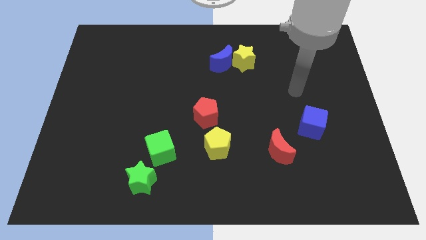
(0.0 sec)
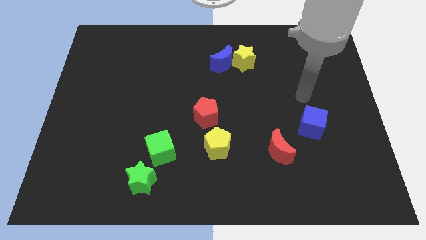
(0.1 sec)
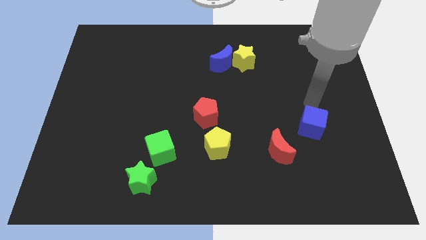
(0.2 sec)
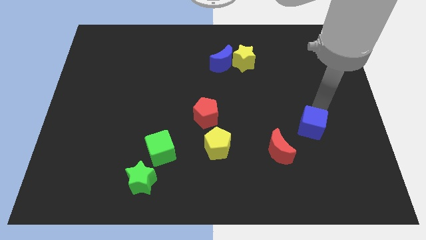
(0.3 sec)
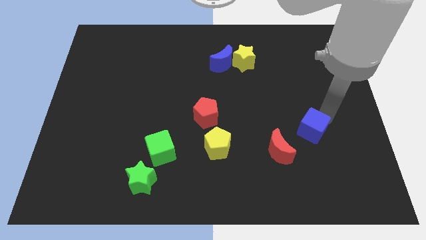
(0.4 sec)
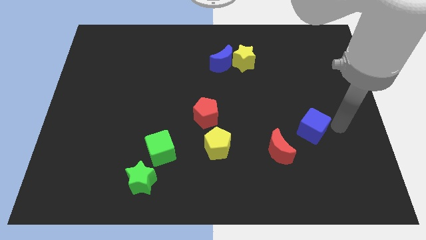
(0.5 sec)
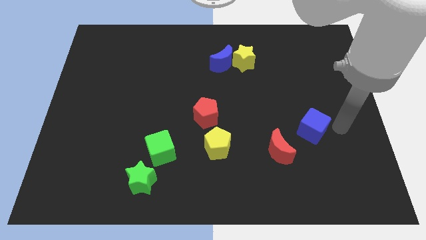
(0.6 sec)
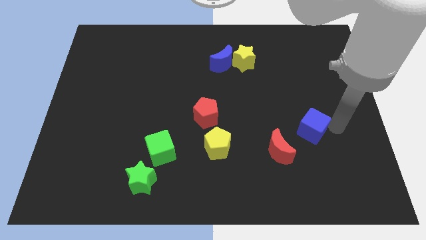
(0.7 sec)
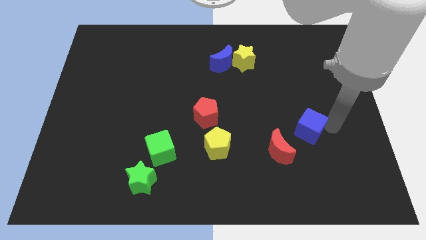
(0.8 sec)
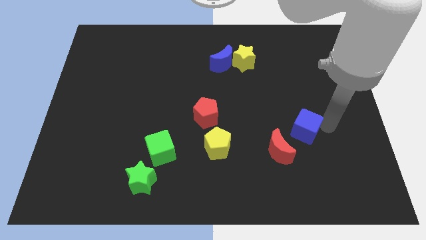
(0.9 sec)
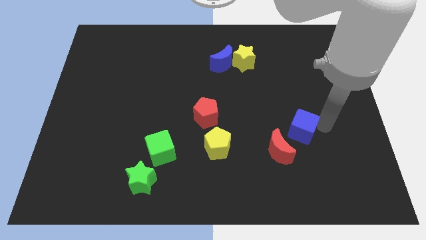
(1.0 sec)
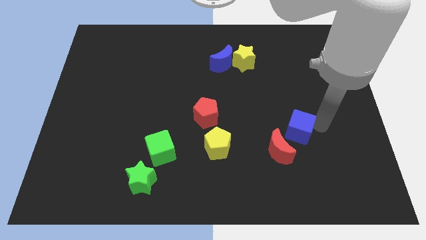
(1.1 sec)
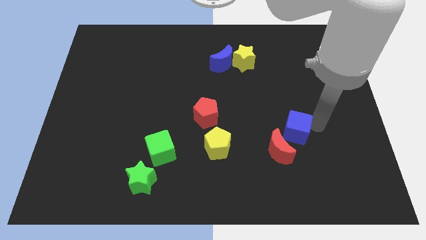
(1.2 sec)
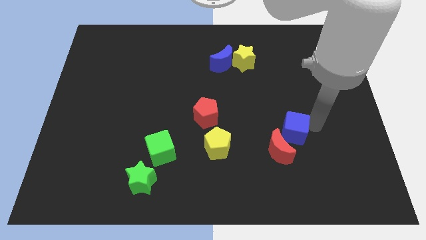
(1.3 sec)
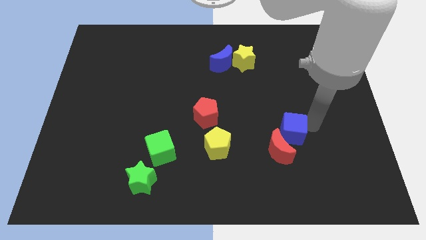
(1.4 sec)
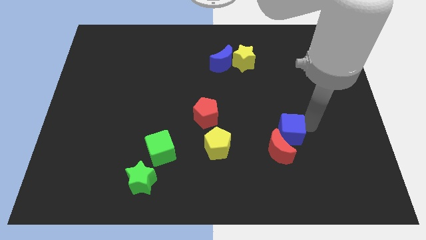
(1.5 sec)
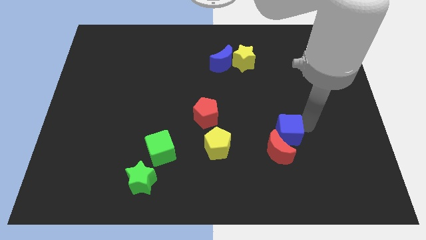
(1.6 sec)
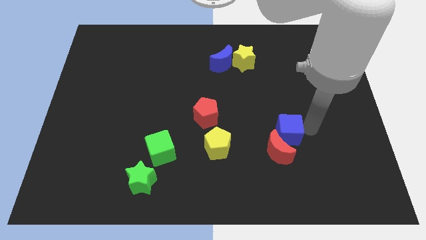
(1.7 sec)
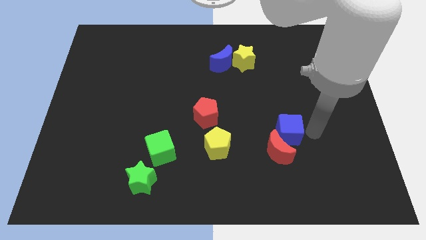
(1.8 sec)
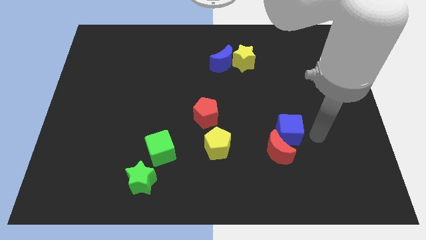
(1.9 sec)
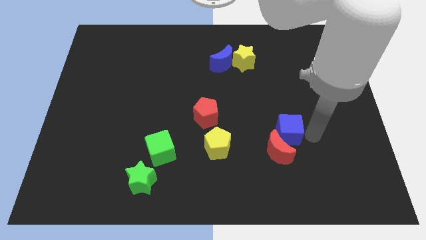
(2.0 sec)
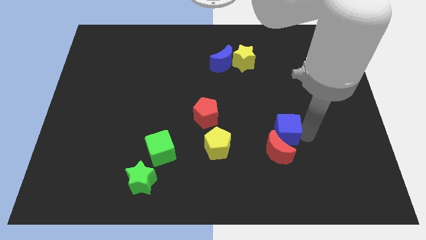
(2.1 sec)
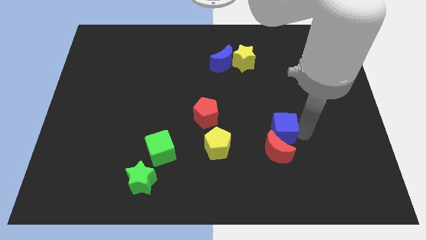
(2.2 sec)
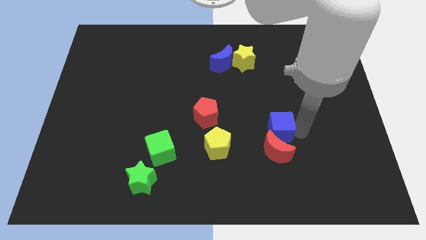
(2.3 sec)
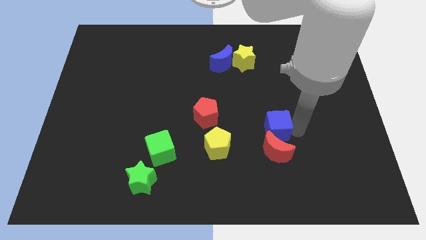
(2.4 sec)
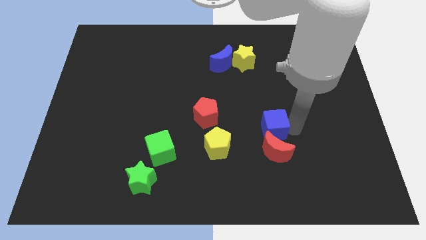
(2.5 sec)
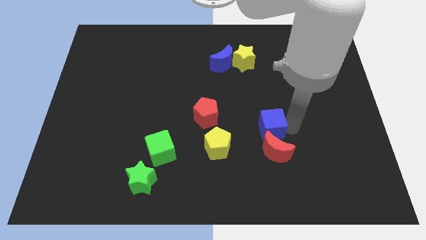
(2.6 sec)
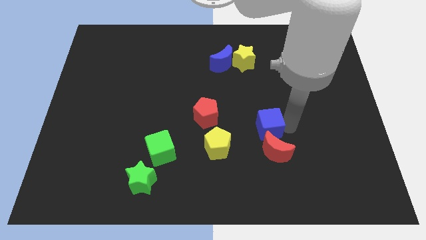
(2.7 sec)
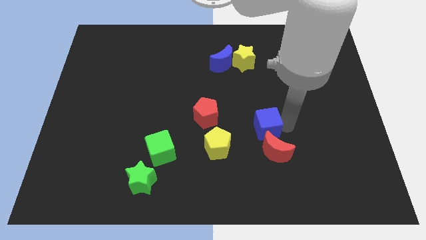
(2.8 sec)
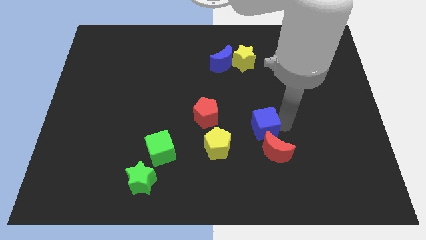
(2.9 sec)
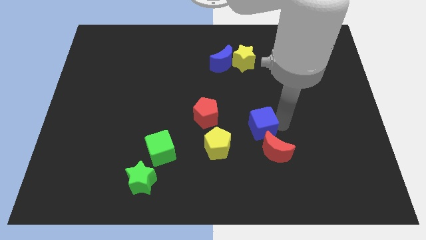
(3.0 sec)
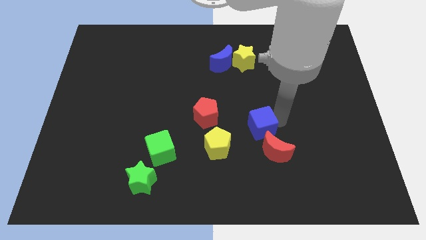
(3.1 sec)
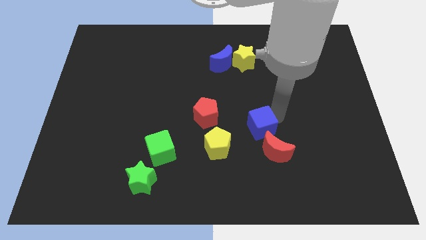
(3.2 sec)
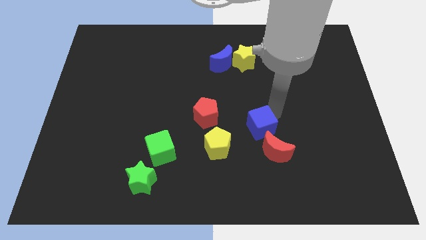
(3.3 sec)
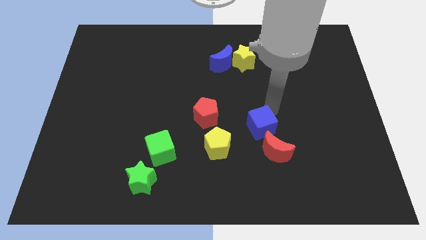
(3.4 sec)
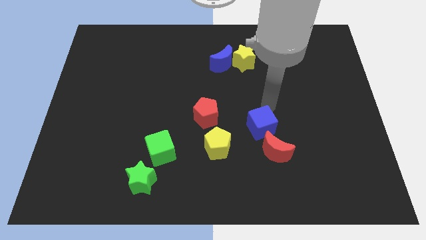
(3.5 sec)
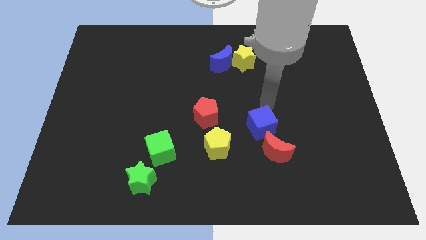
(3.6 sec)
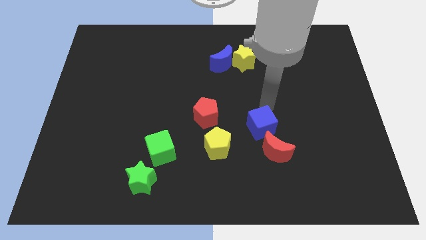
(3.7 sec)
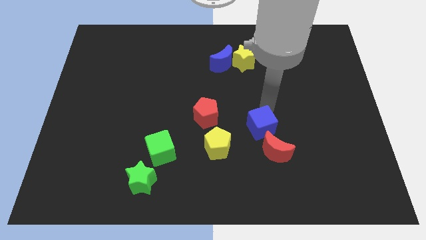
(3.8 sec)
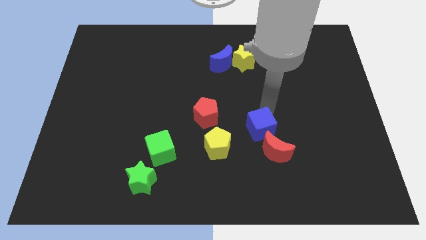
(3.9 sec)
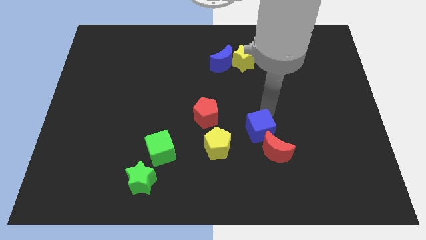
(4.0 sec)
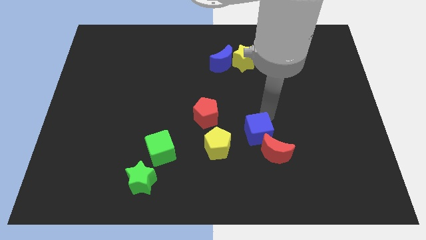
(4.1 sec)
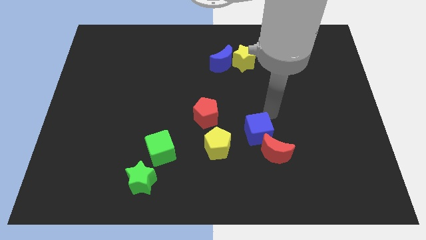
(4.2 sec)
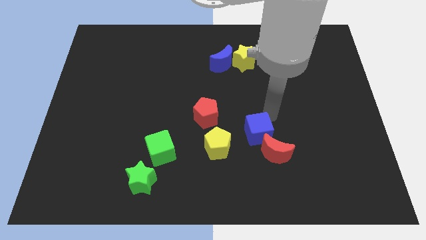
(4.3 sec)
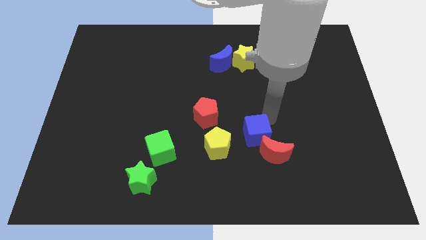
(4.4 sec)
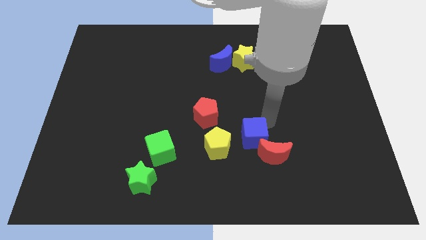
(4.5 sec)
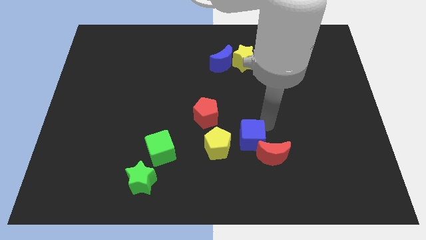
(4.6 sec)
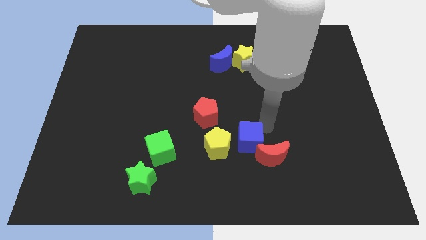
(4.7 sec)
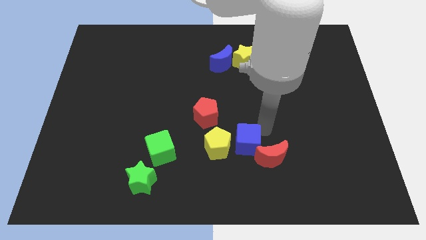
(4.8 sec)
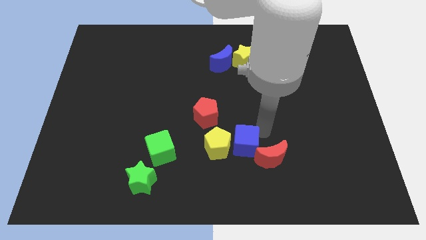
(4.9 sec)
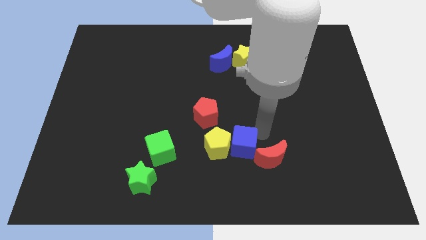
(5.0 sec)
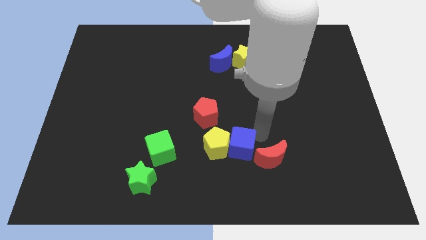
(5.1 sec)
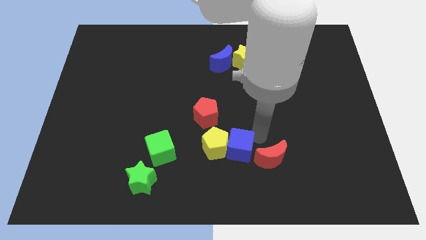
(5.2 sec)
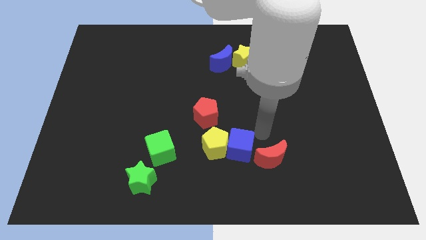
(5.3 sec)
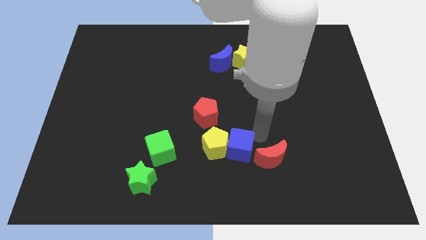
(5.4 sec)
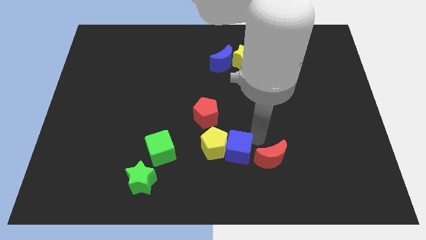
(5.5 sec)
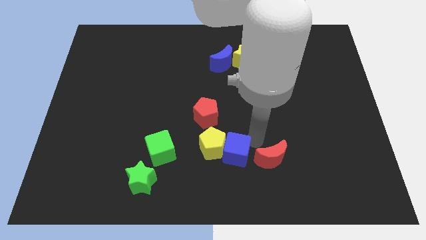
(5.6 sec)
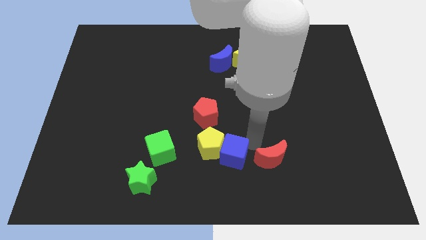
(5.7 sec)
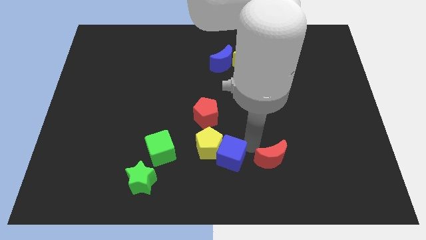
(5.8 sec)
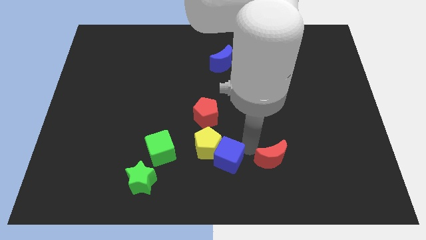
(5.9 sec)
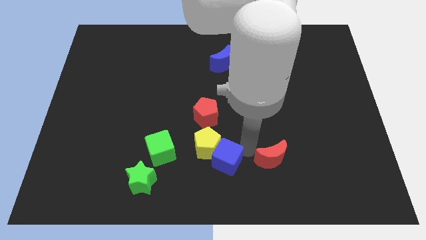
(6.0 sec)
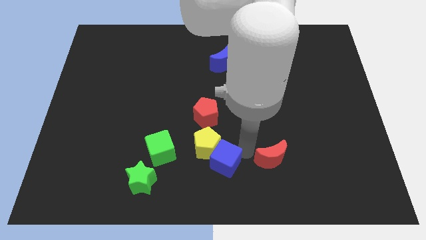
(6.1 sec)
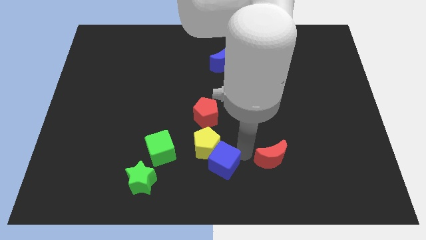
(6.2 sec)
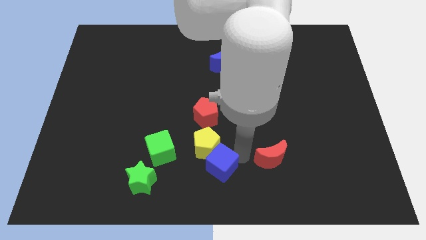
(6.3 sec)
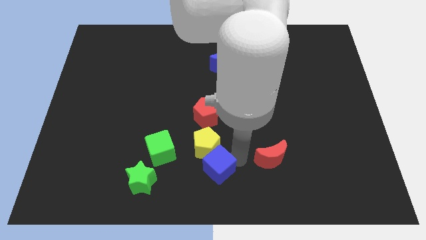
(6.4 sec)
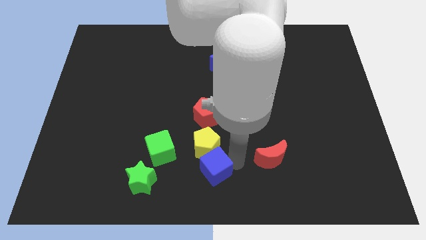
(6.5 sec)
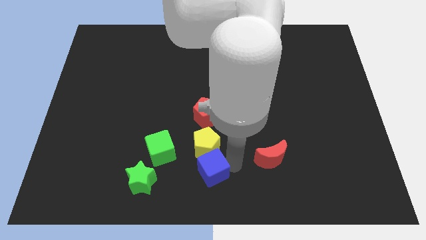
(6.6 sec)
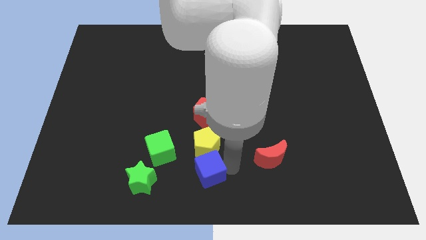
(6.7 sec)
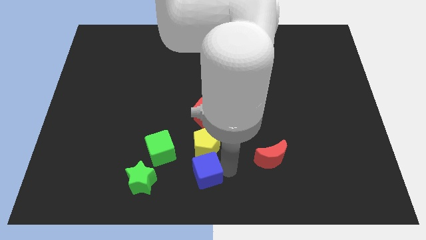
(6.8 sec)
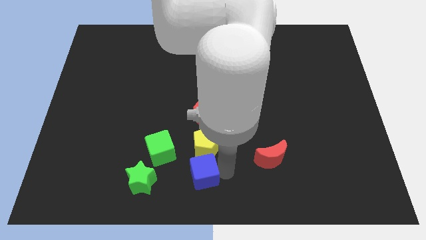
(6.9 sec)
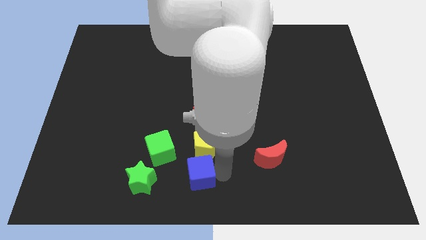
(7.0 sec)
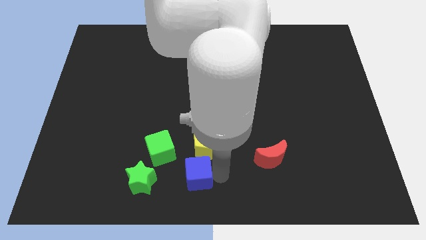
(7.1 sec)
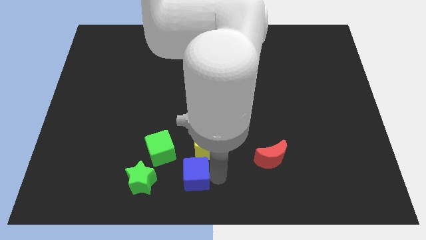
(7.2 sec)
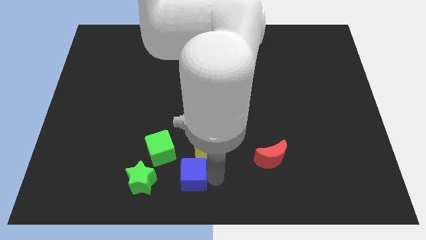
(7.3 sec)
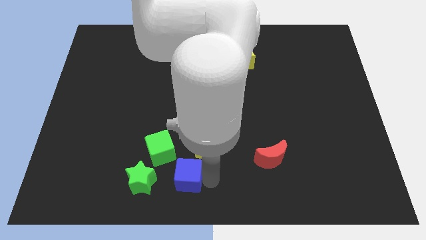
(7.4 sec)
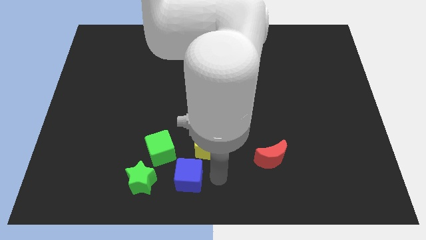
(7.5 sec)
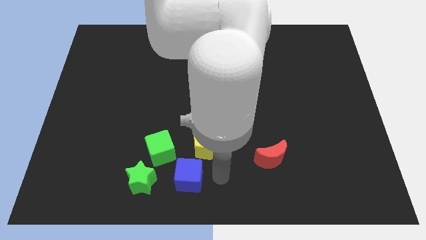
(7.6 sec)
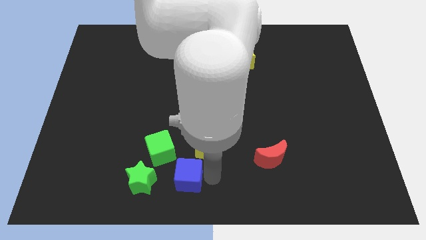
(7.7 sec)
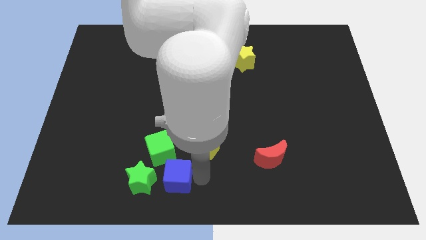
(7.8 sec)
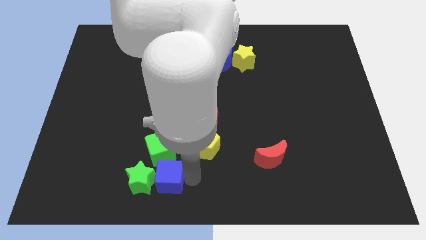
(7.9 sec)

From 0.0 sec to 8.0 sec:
put the blue cube close to the green star
